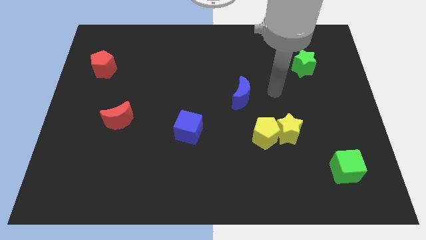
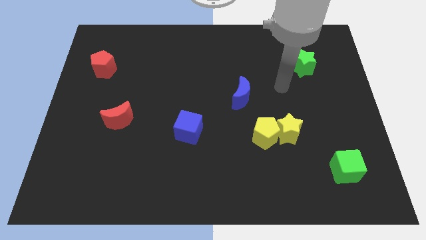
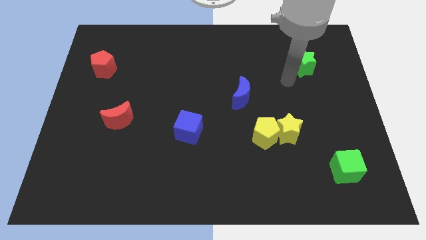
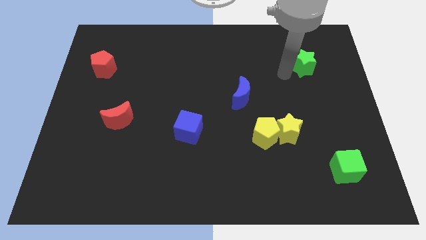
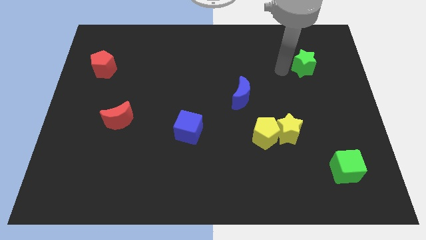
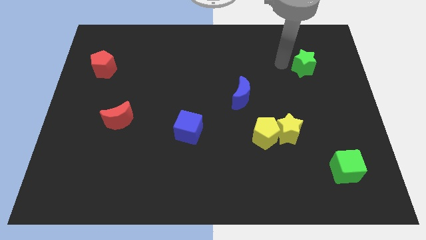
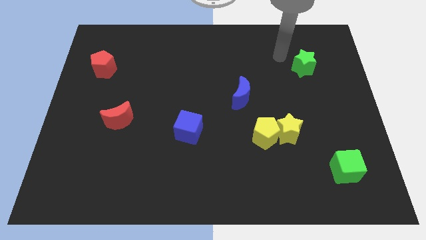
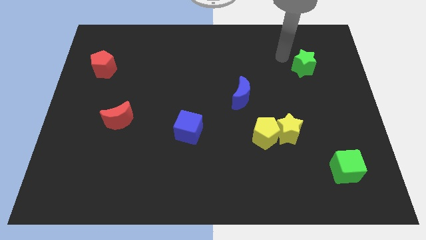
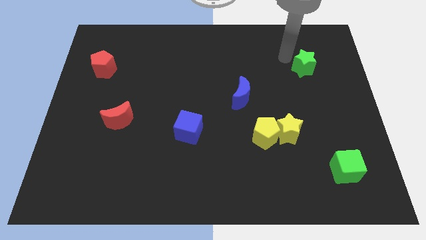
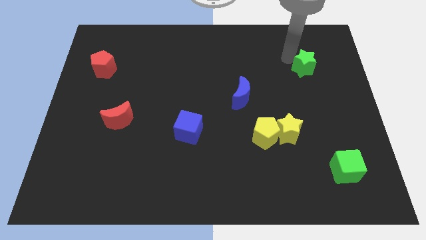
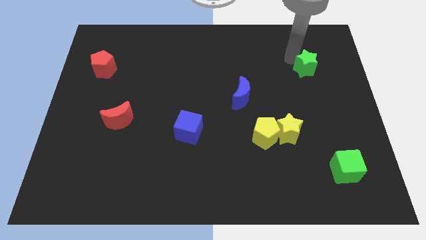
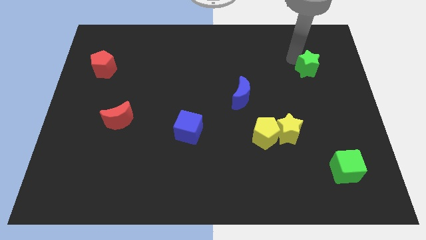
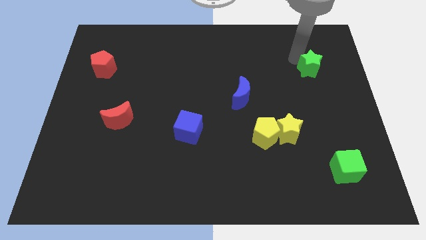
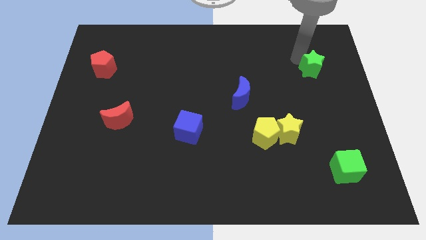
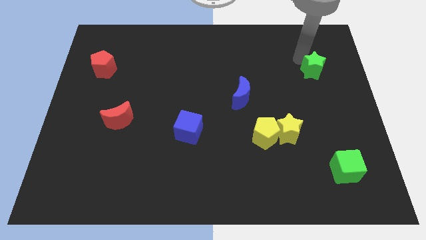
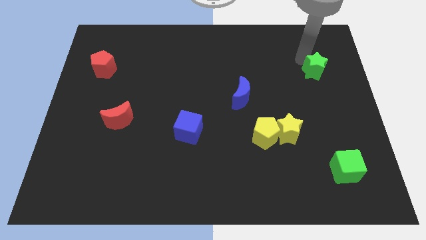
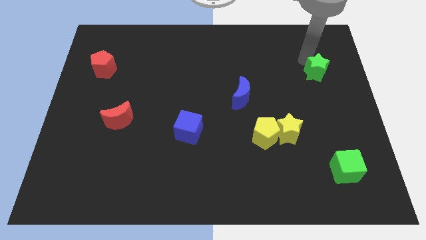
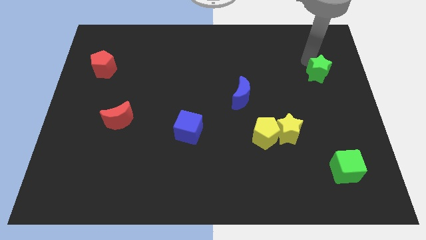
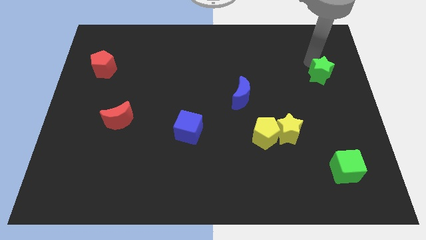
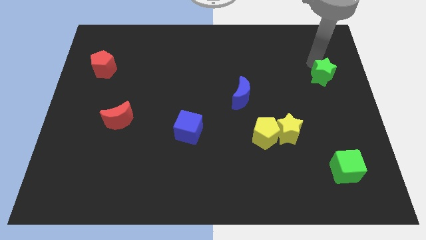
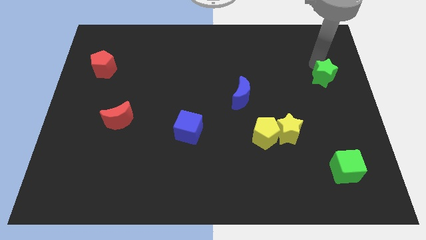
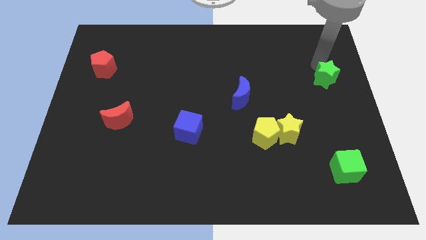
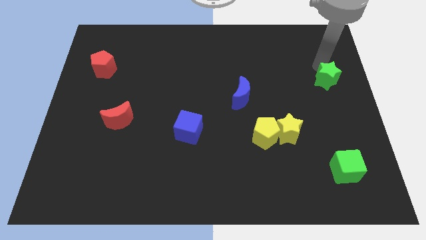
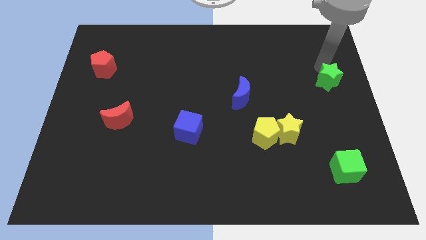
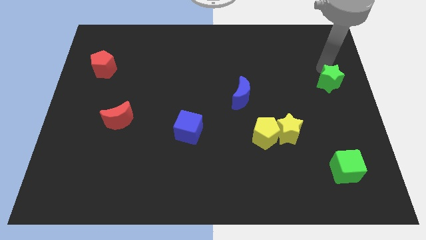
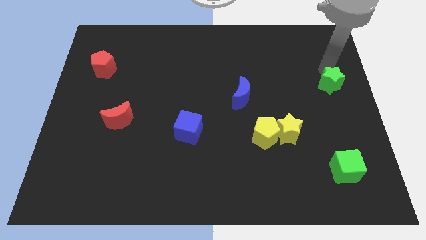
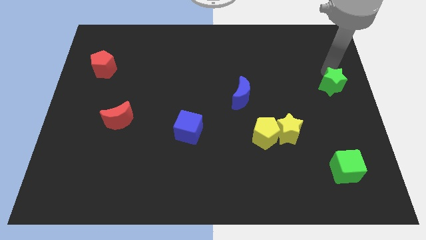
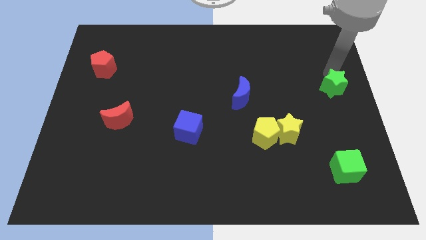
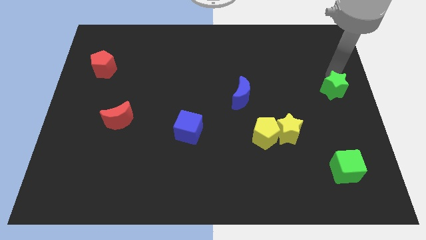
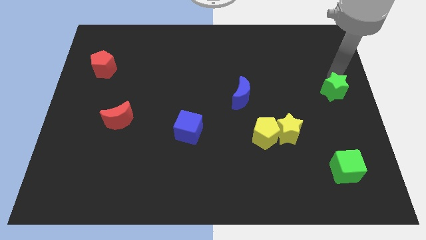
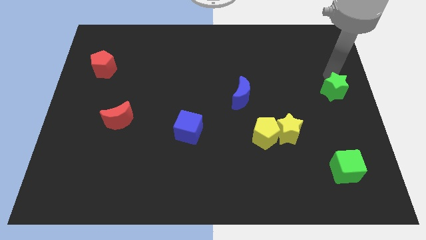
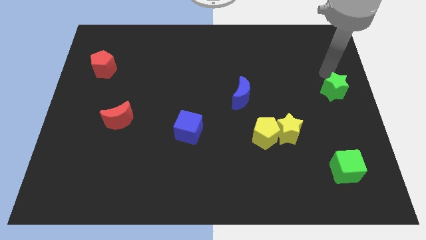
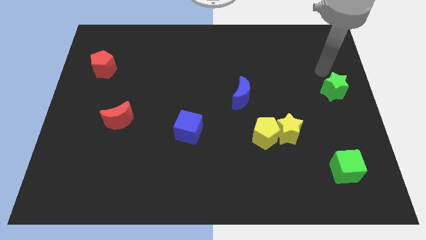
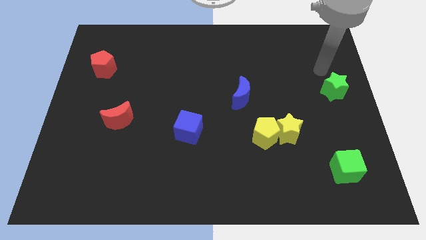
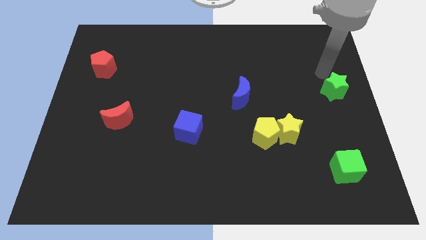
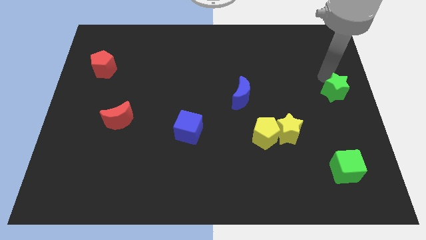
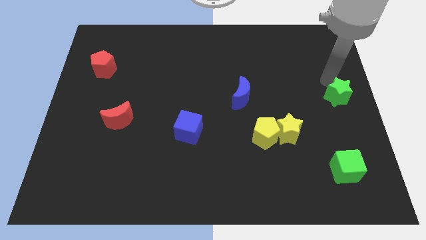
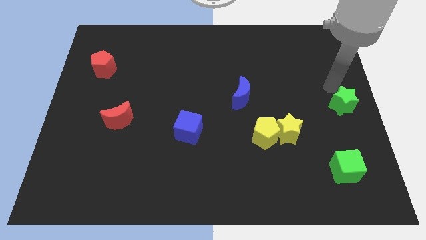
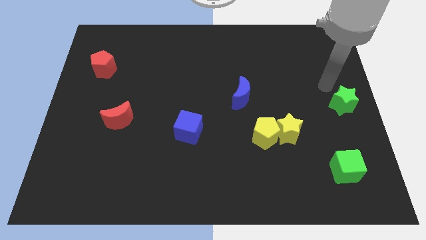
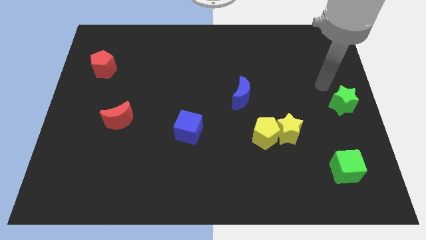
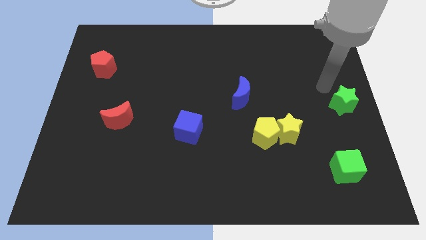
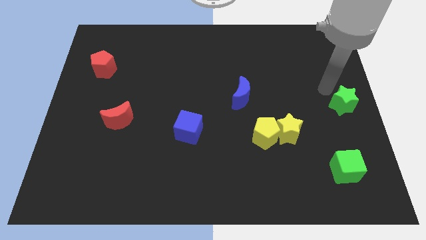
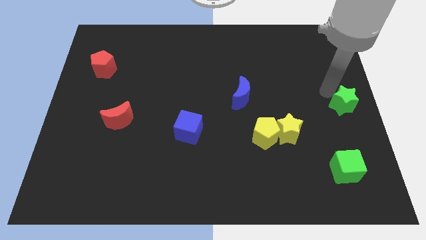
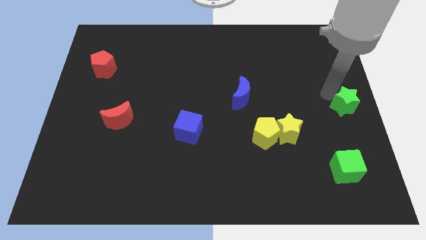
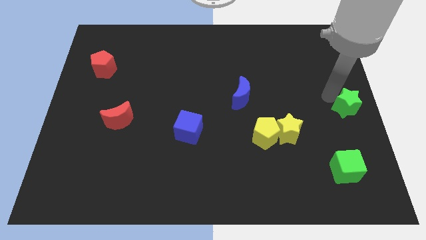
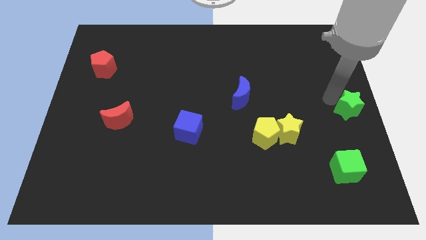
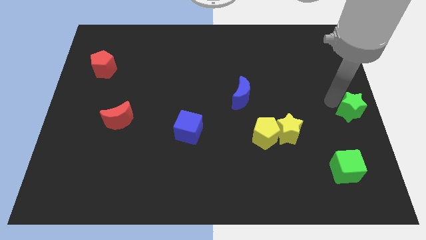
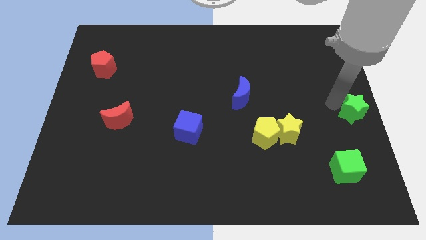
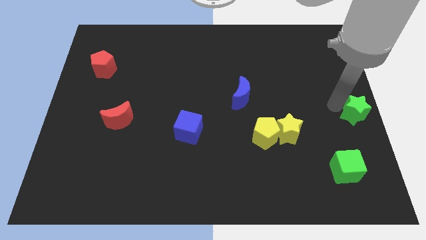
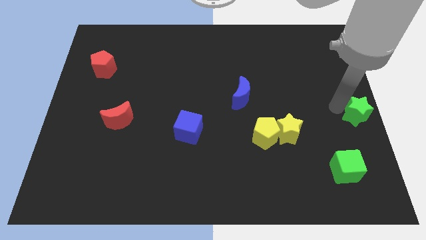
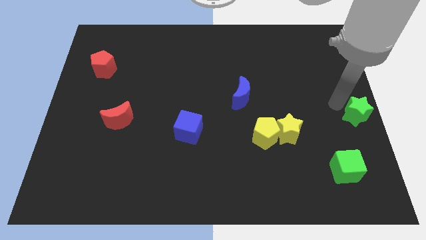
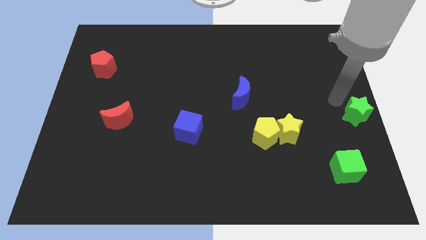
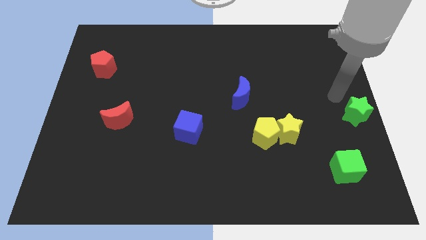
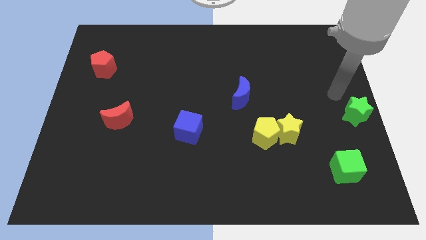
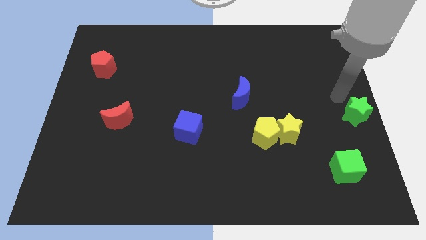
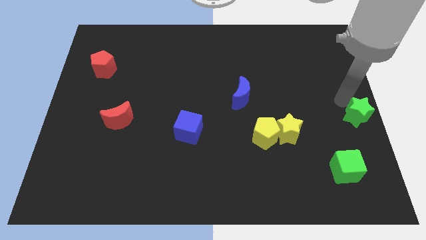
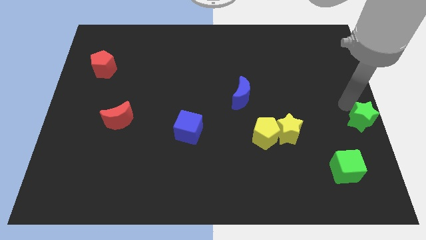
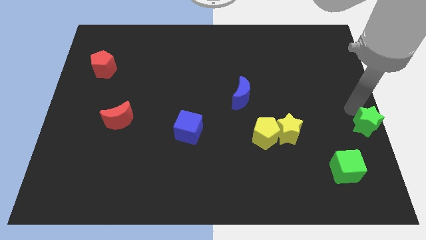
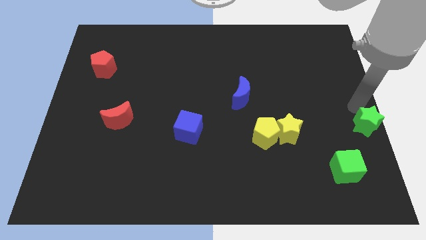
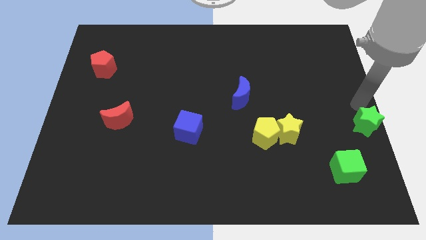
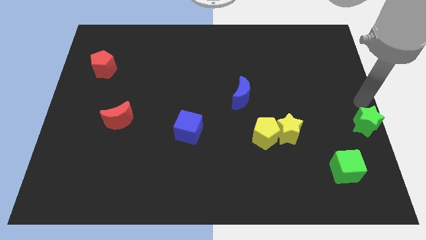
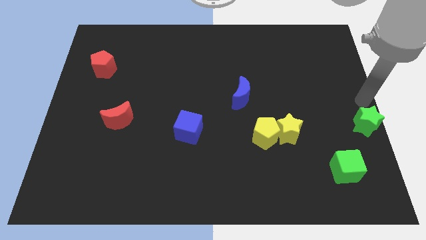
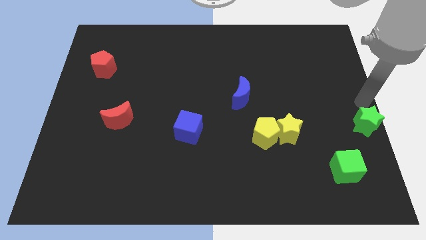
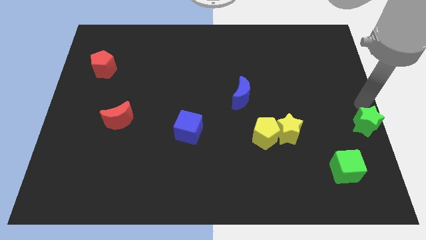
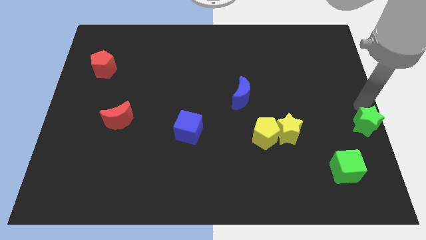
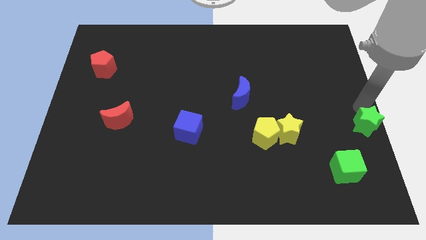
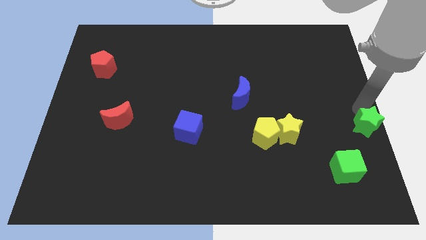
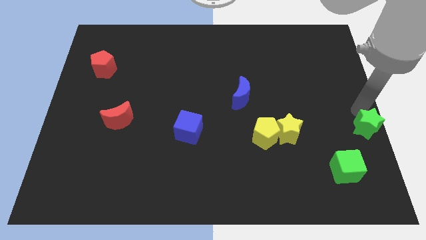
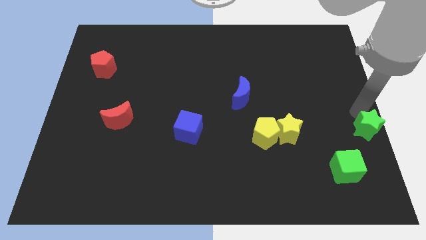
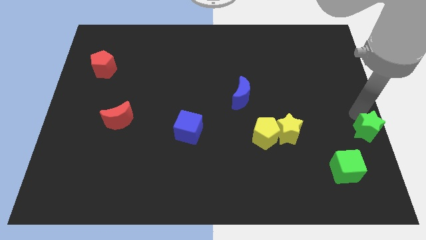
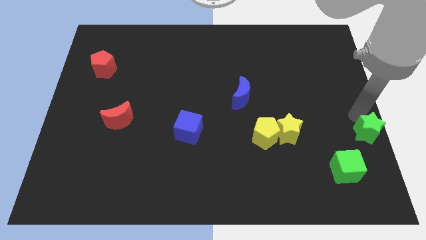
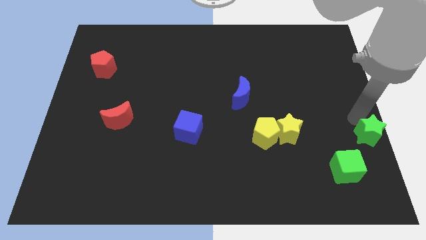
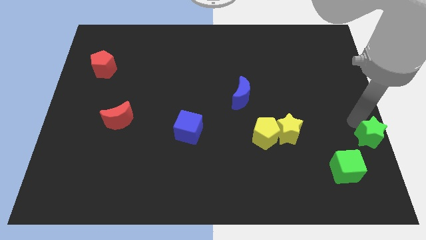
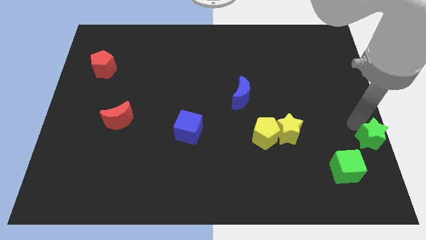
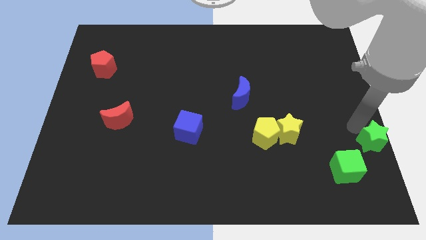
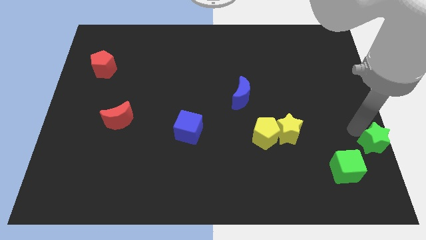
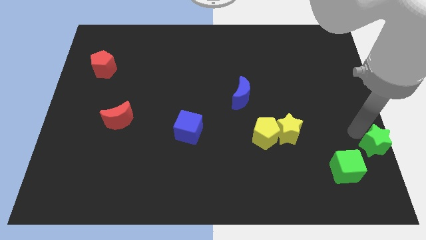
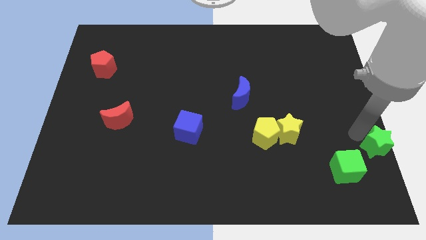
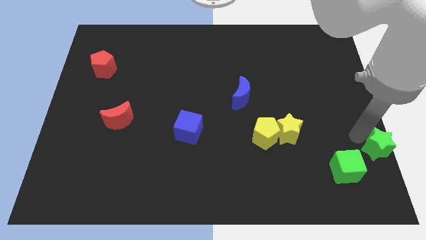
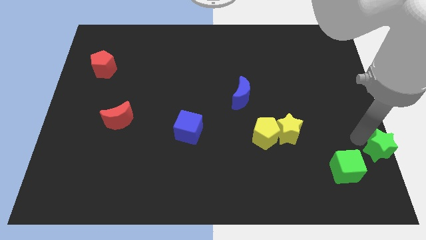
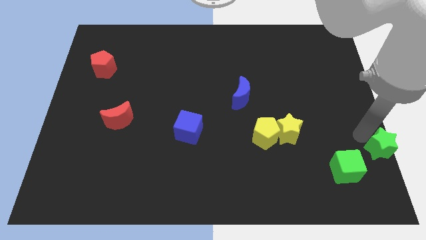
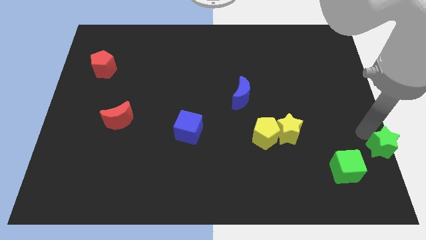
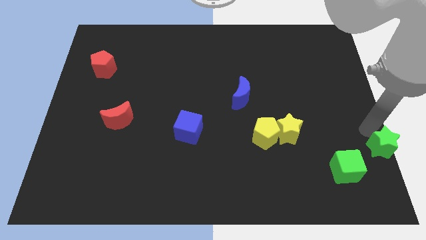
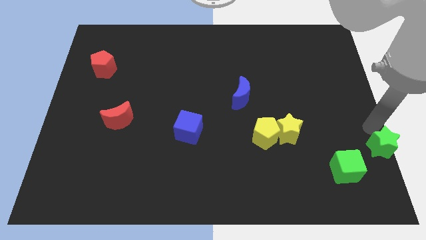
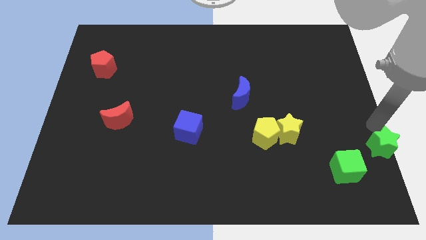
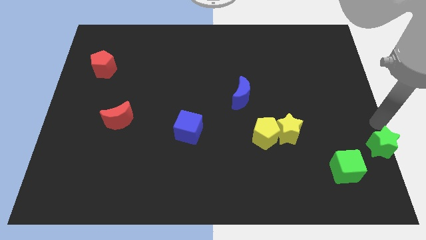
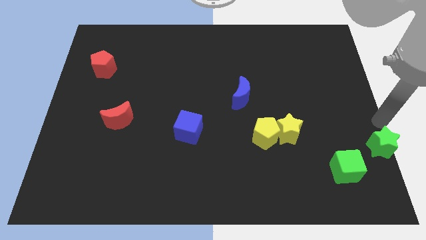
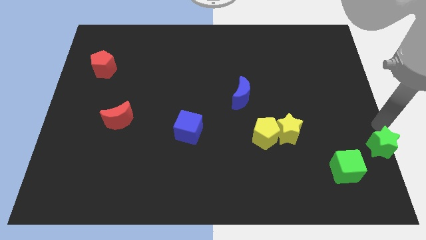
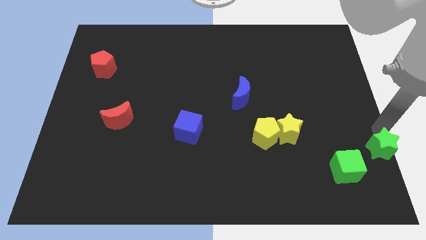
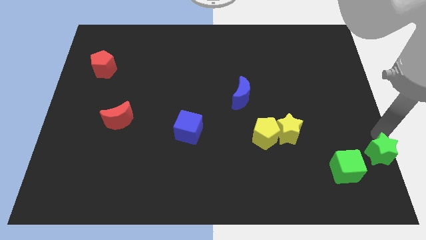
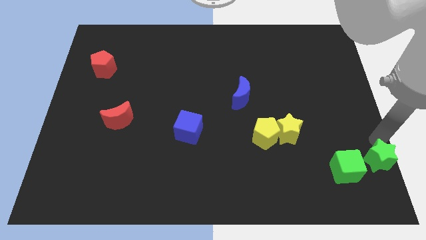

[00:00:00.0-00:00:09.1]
put the green star to the lower right corner
